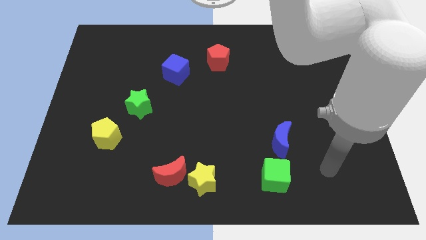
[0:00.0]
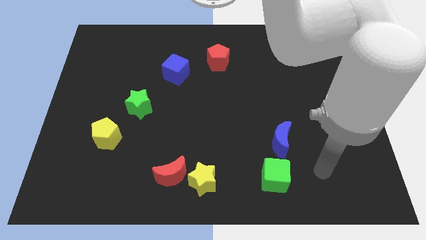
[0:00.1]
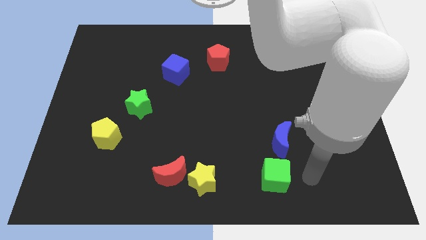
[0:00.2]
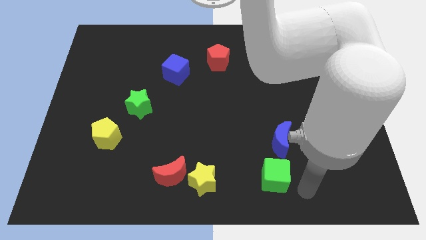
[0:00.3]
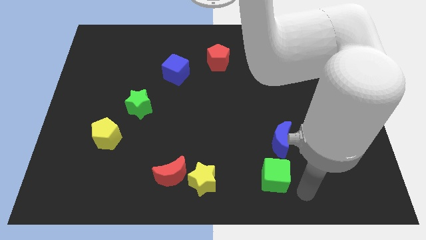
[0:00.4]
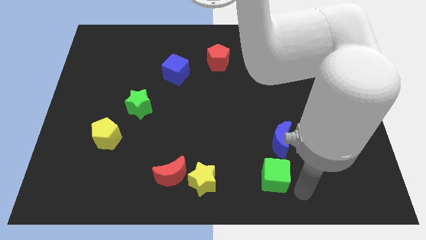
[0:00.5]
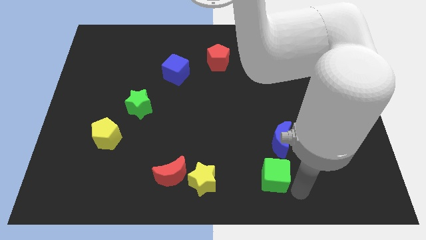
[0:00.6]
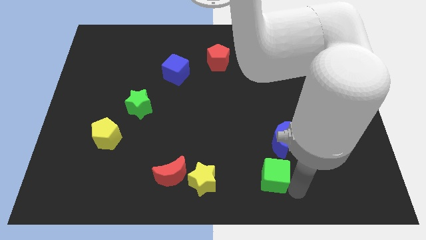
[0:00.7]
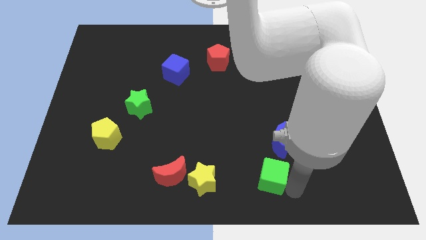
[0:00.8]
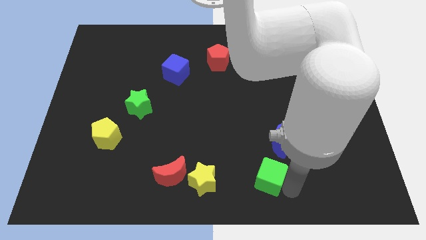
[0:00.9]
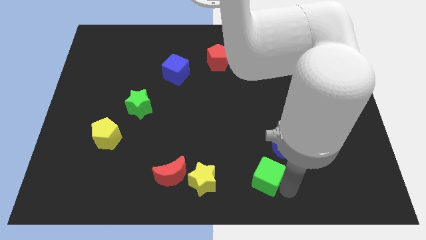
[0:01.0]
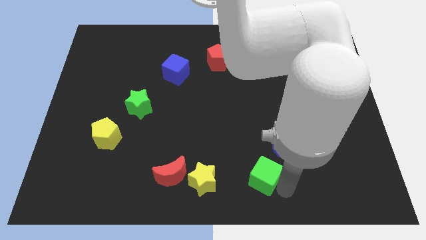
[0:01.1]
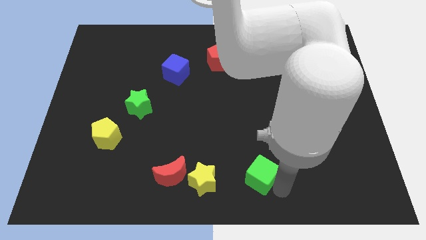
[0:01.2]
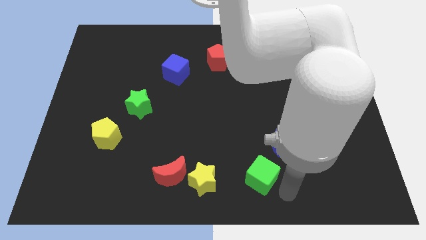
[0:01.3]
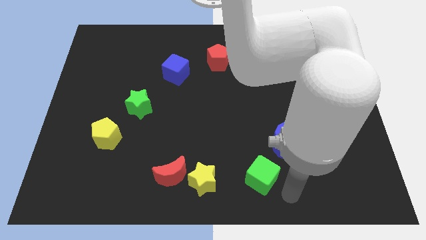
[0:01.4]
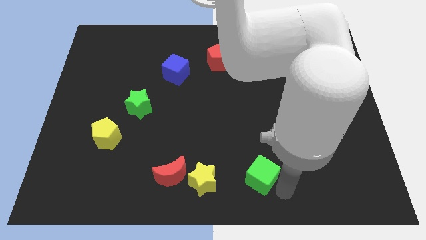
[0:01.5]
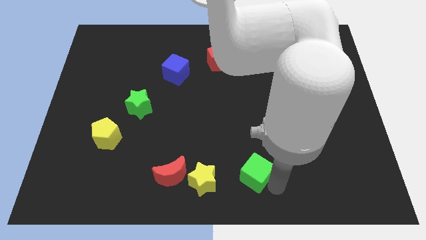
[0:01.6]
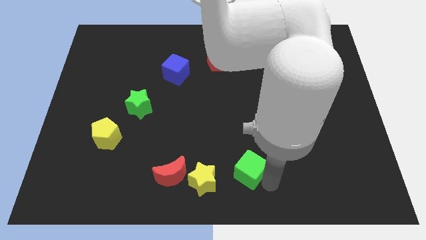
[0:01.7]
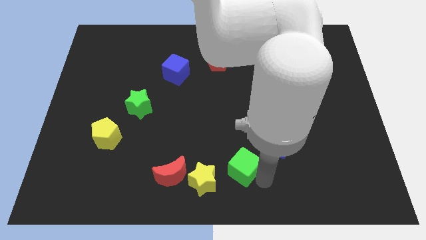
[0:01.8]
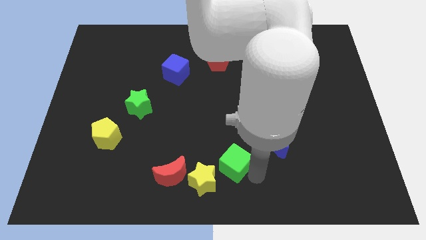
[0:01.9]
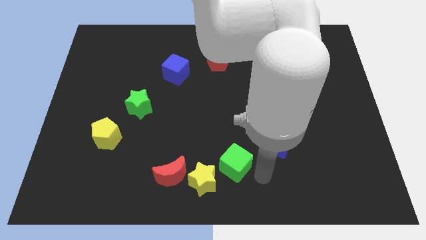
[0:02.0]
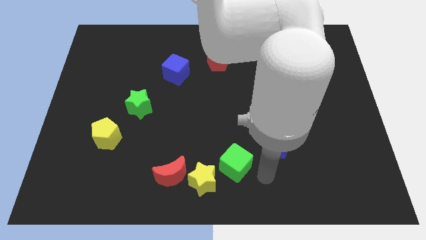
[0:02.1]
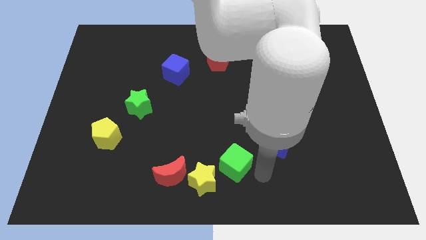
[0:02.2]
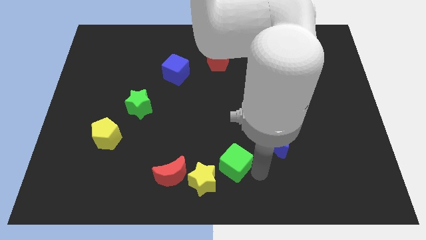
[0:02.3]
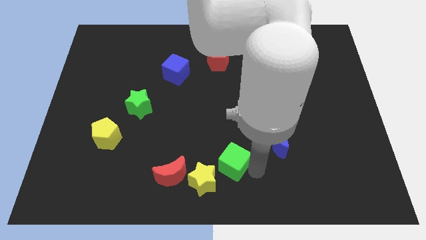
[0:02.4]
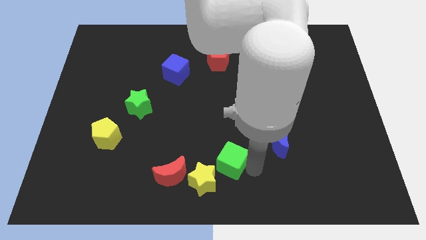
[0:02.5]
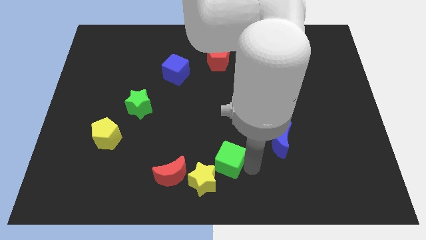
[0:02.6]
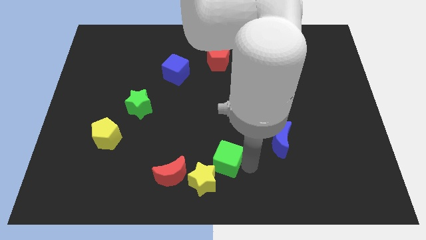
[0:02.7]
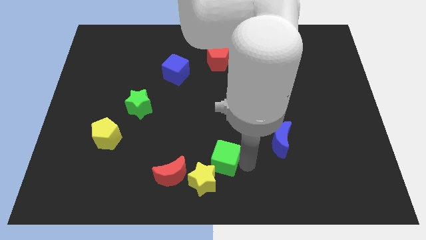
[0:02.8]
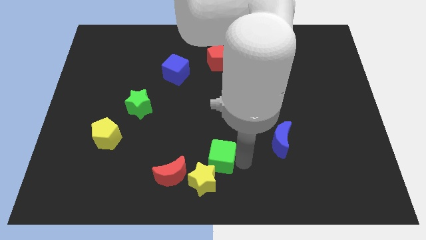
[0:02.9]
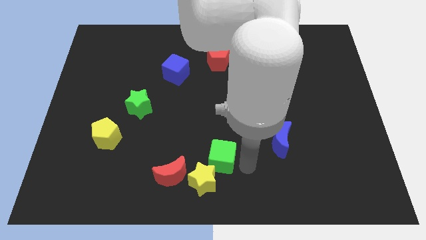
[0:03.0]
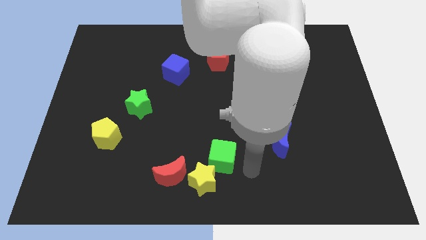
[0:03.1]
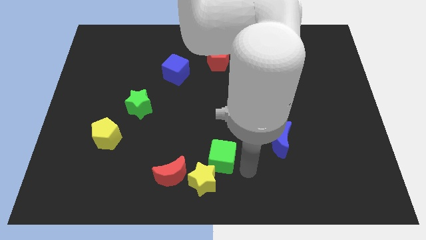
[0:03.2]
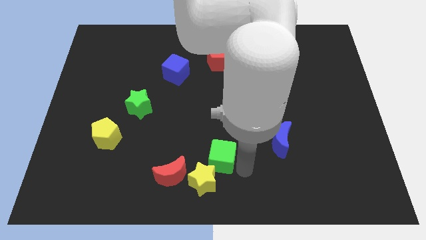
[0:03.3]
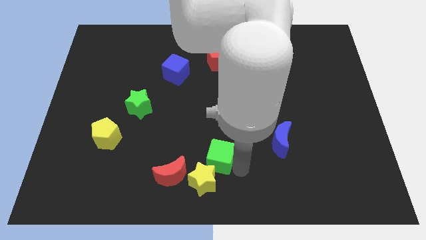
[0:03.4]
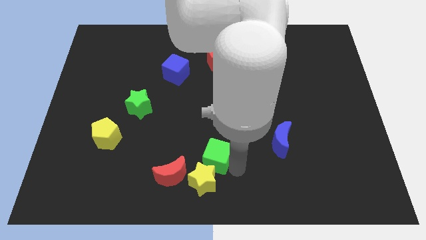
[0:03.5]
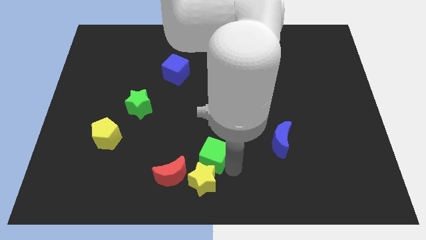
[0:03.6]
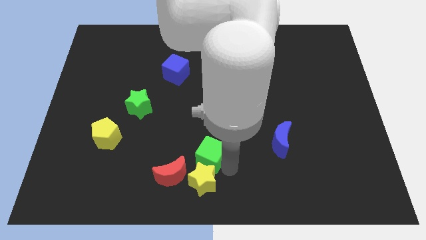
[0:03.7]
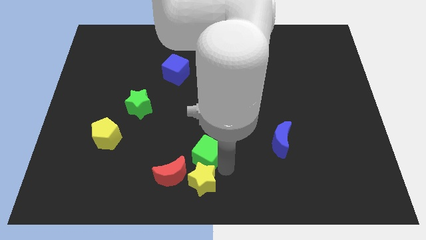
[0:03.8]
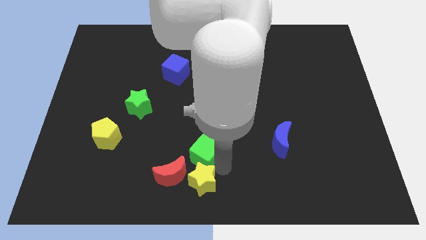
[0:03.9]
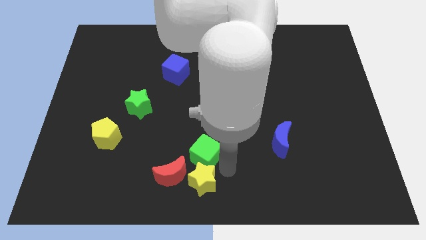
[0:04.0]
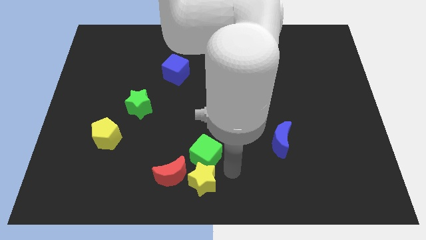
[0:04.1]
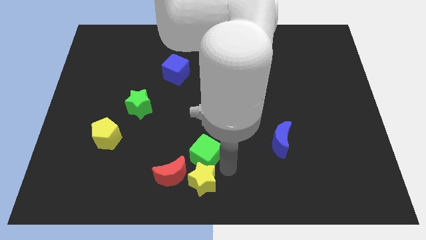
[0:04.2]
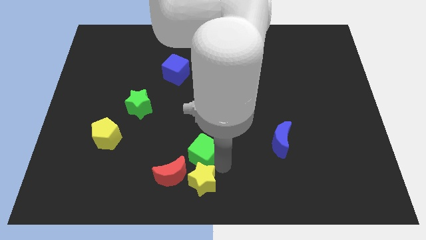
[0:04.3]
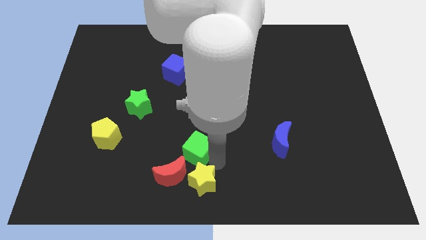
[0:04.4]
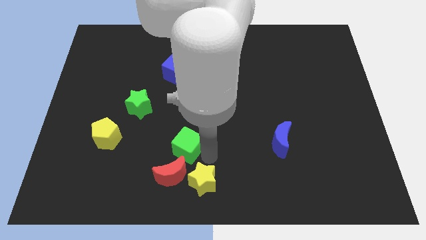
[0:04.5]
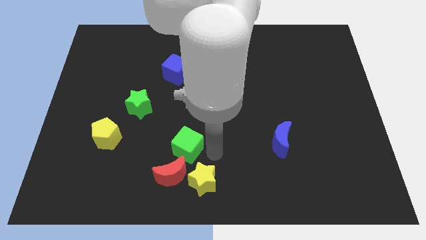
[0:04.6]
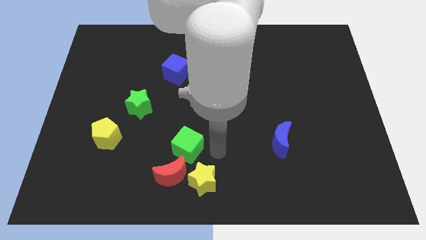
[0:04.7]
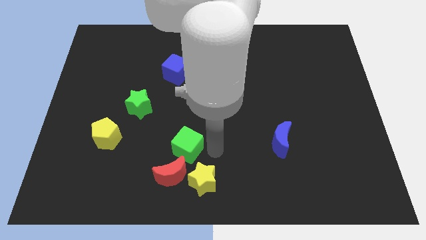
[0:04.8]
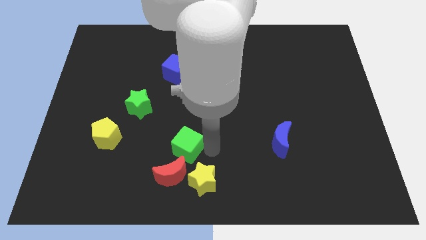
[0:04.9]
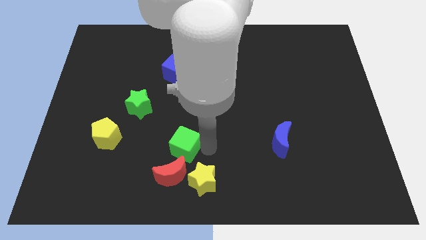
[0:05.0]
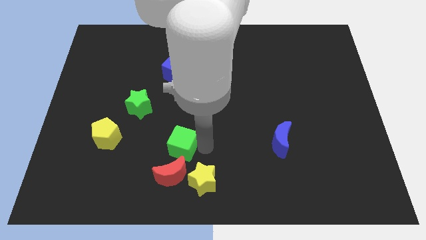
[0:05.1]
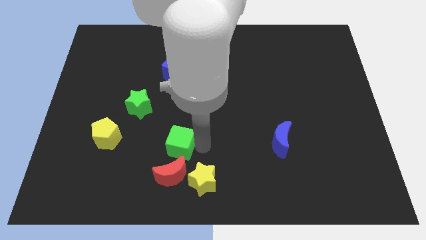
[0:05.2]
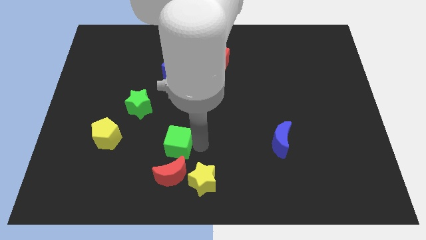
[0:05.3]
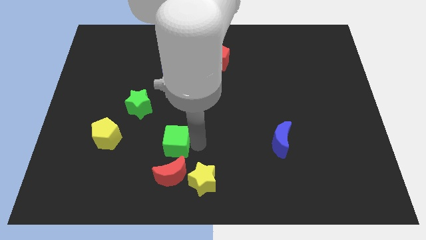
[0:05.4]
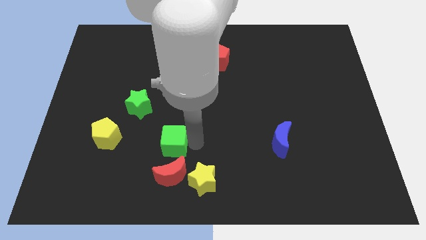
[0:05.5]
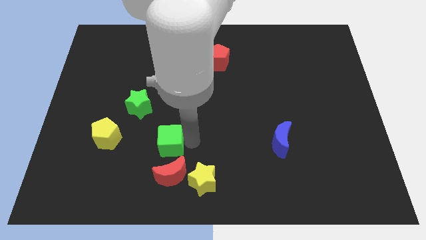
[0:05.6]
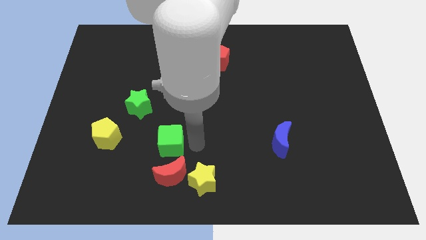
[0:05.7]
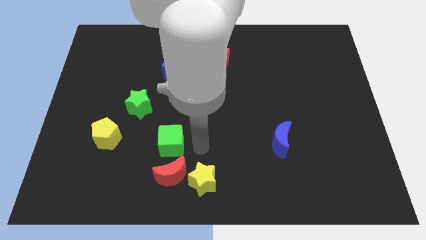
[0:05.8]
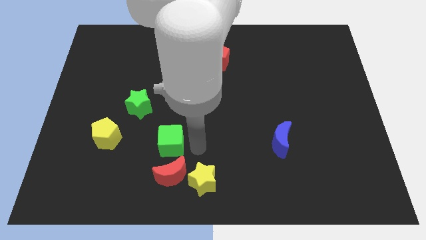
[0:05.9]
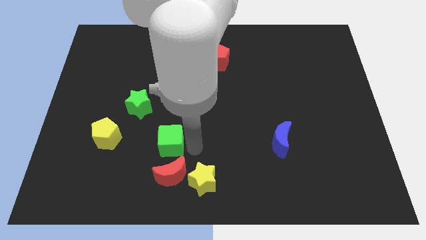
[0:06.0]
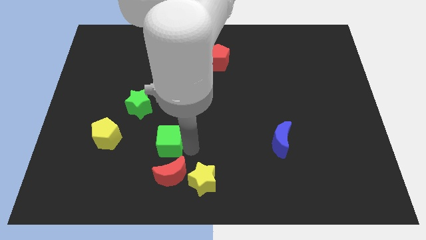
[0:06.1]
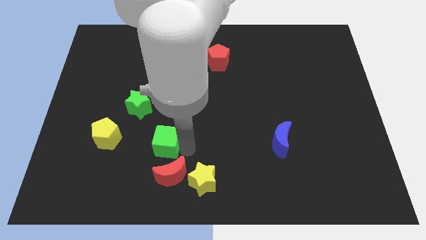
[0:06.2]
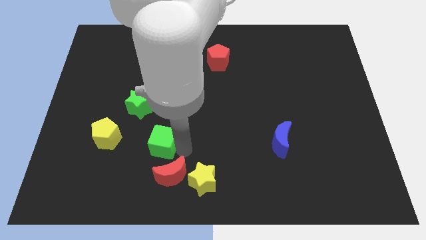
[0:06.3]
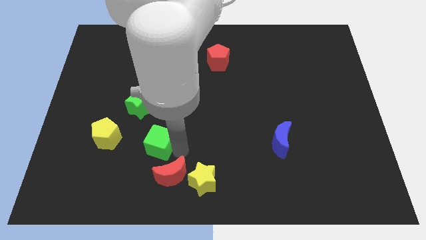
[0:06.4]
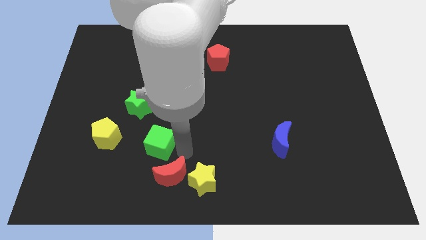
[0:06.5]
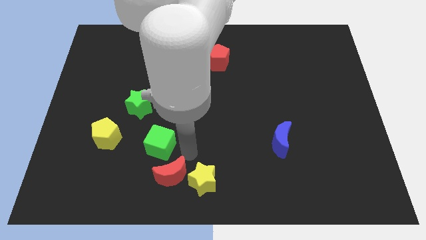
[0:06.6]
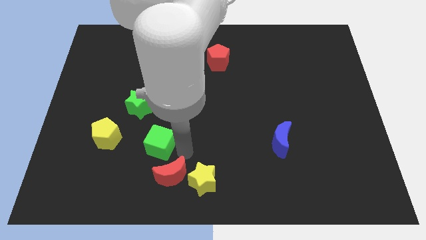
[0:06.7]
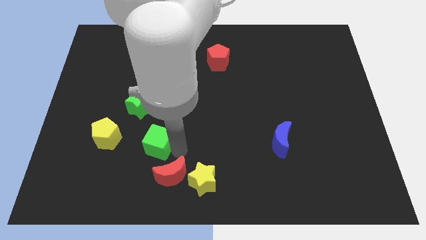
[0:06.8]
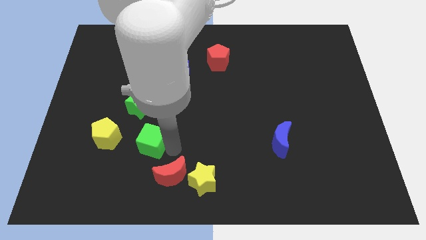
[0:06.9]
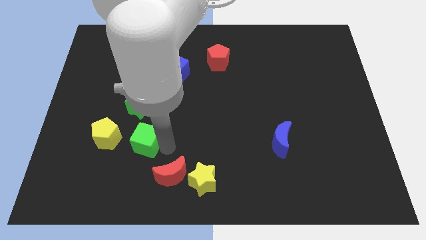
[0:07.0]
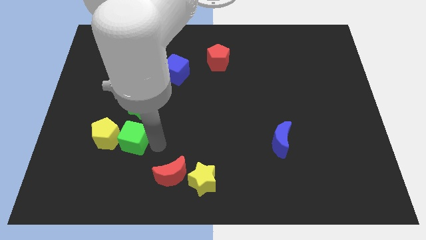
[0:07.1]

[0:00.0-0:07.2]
put the green cube close to the yellow pentagon
